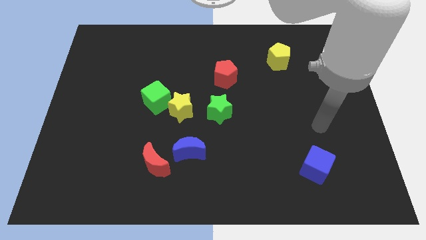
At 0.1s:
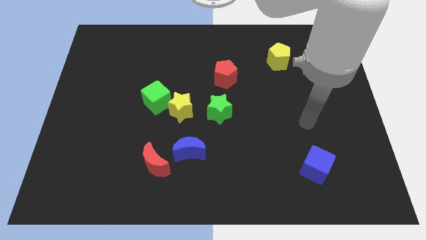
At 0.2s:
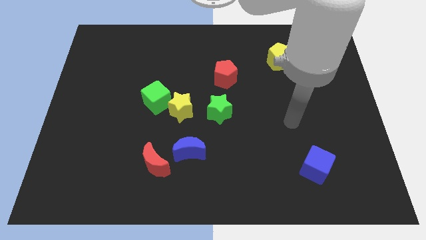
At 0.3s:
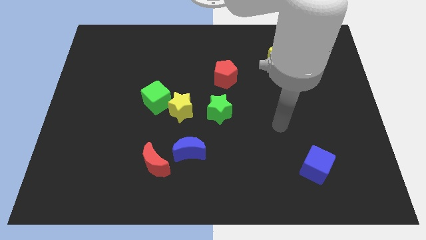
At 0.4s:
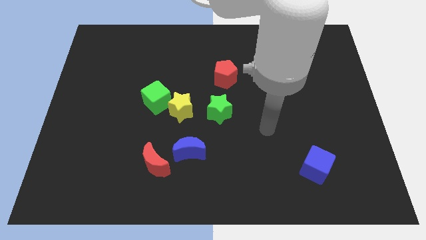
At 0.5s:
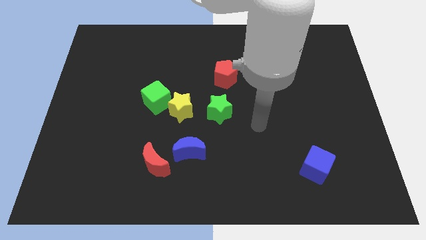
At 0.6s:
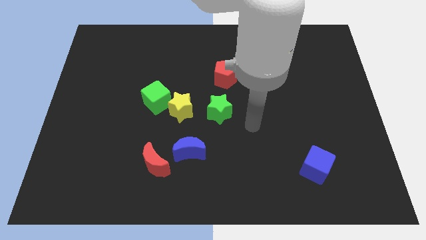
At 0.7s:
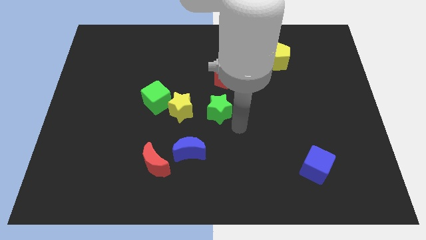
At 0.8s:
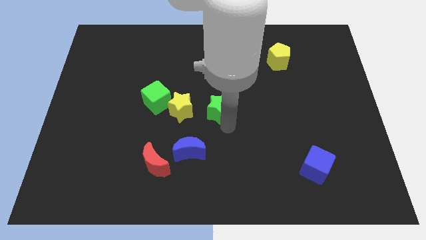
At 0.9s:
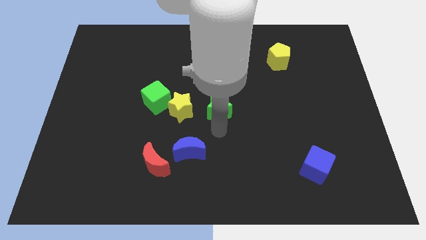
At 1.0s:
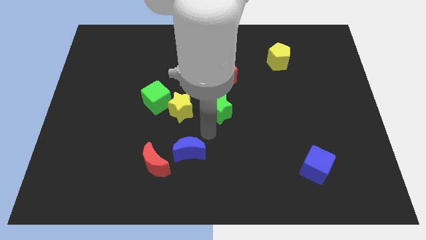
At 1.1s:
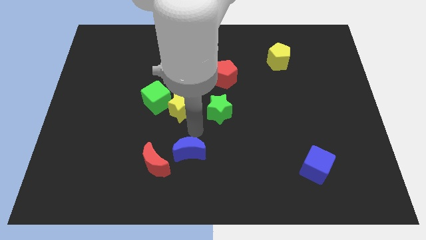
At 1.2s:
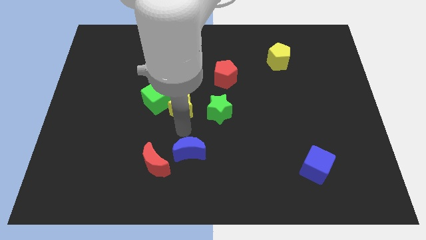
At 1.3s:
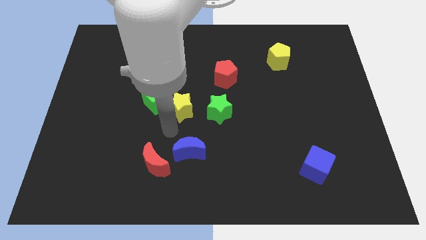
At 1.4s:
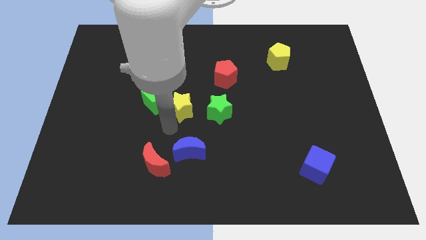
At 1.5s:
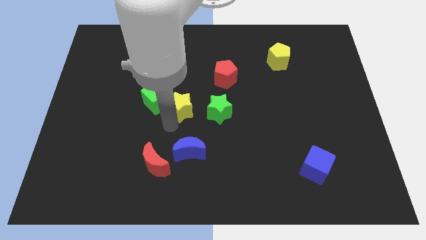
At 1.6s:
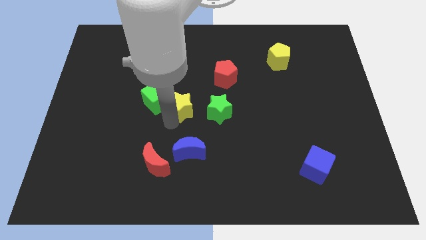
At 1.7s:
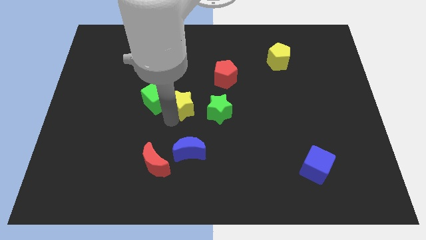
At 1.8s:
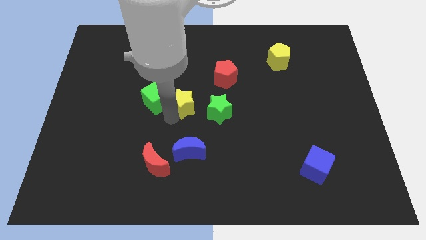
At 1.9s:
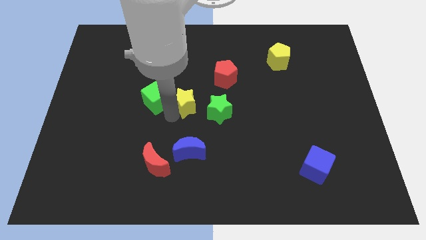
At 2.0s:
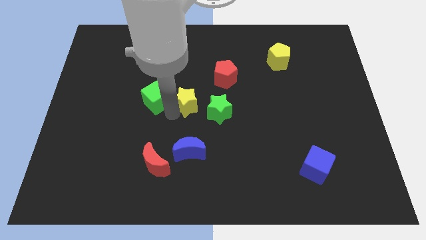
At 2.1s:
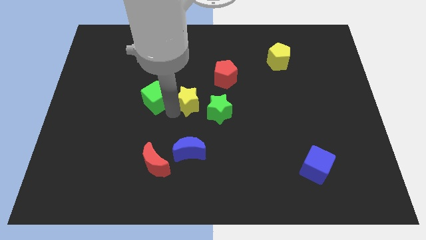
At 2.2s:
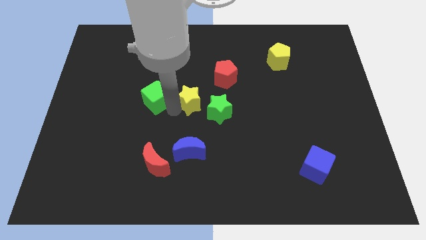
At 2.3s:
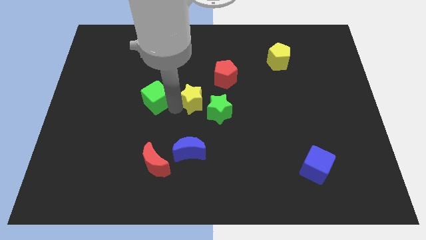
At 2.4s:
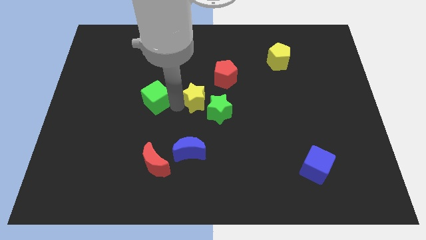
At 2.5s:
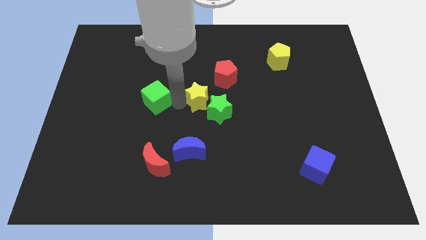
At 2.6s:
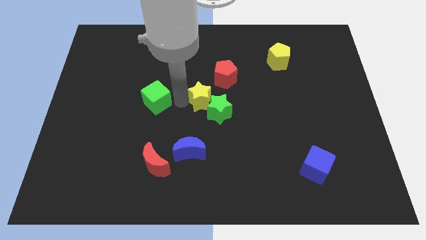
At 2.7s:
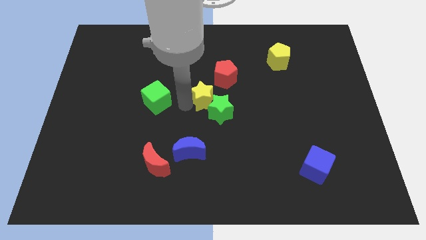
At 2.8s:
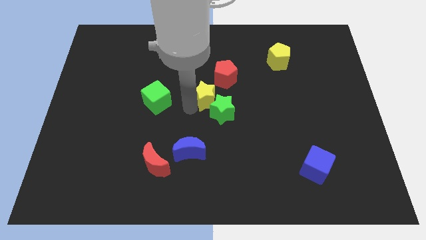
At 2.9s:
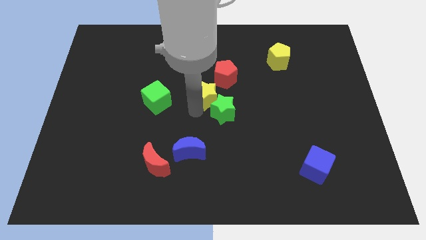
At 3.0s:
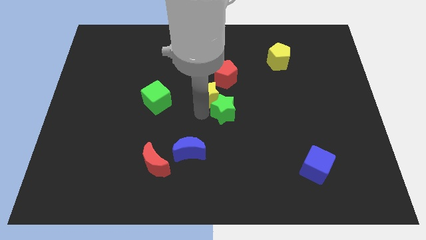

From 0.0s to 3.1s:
slightly move the yellow star upwards and right

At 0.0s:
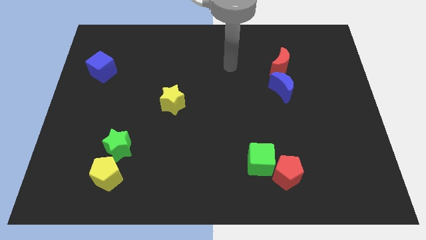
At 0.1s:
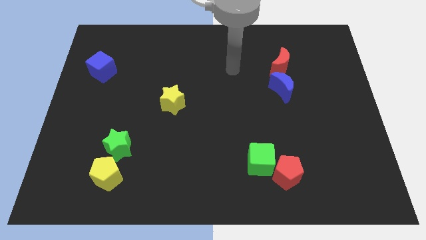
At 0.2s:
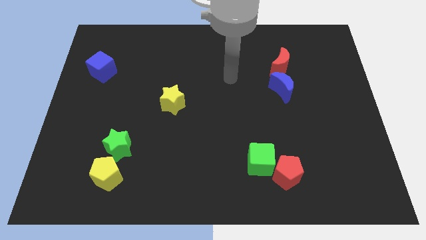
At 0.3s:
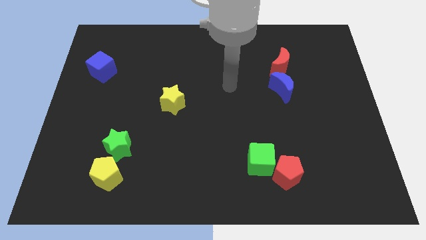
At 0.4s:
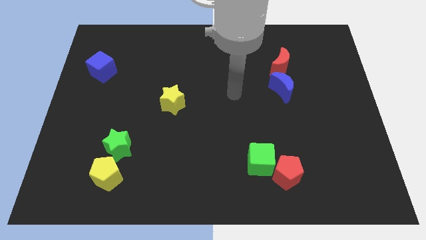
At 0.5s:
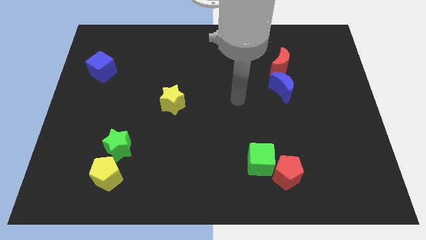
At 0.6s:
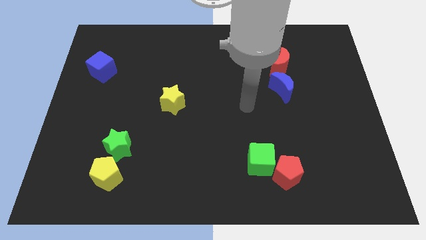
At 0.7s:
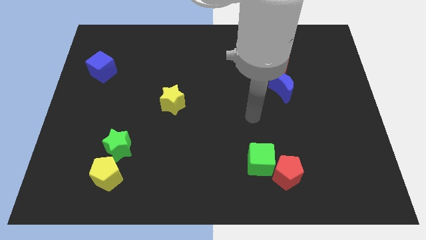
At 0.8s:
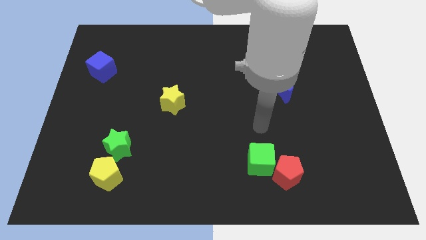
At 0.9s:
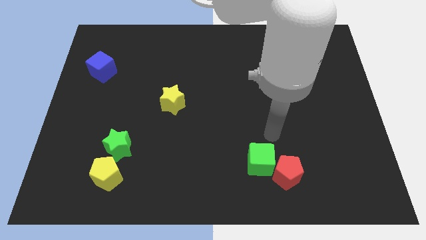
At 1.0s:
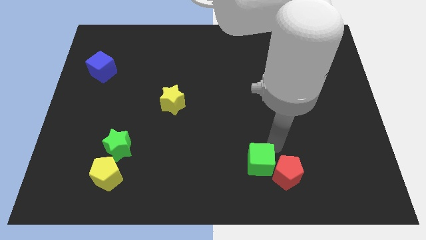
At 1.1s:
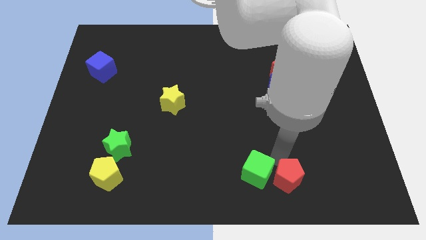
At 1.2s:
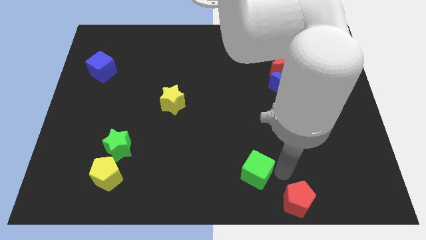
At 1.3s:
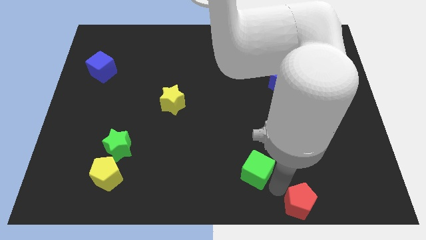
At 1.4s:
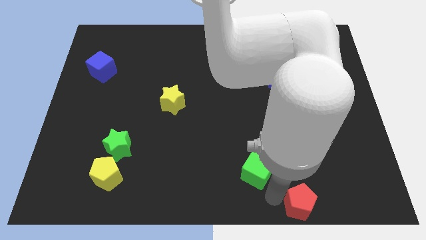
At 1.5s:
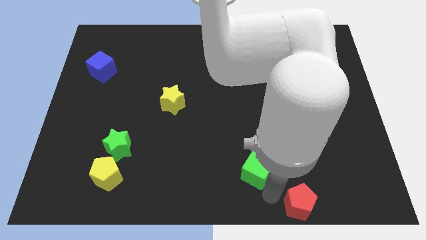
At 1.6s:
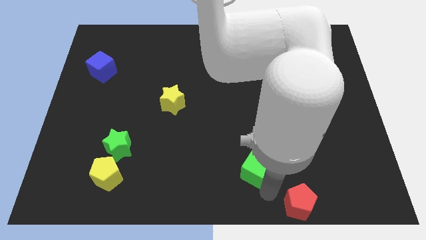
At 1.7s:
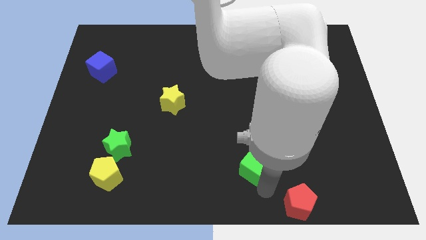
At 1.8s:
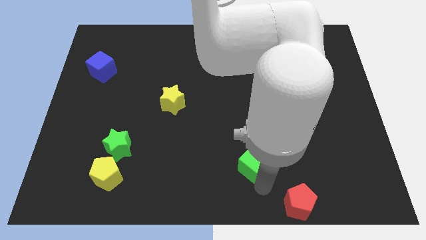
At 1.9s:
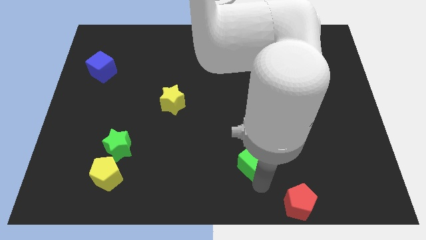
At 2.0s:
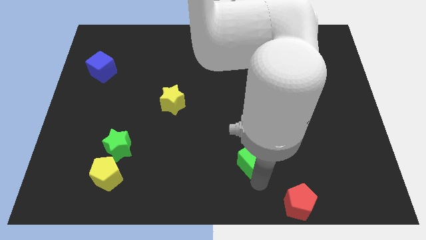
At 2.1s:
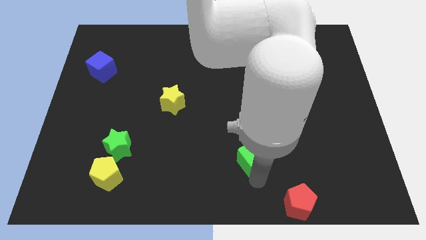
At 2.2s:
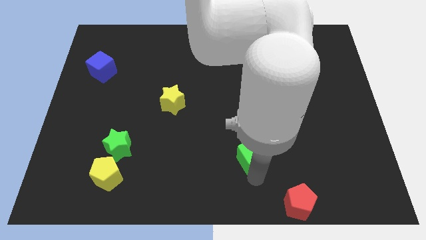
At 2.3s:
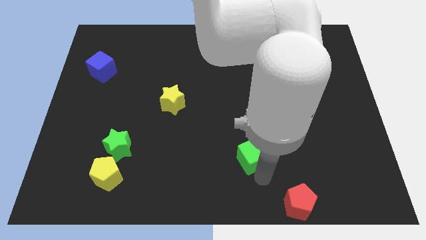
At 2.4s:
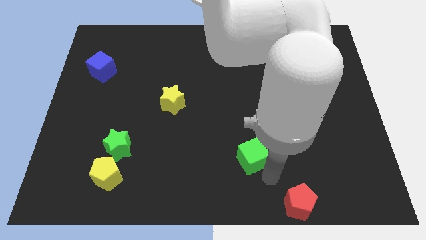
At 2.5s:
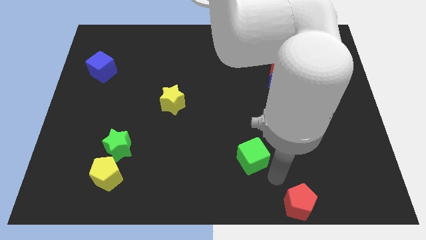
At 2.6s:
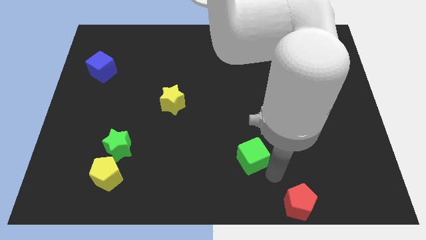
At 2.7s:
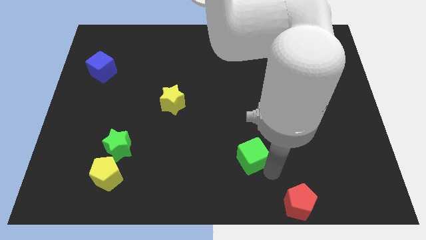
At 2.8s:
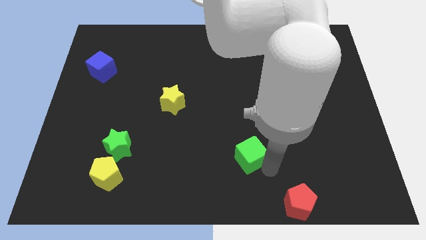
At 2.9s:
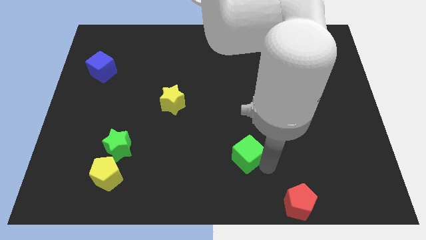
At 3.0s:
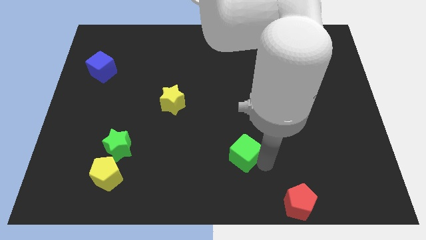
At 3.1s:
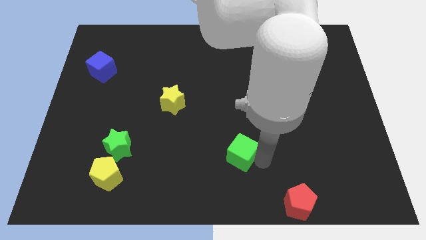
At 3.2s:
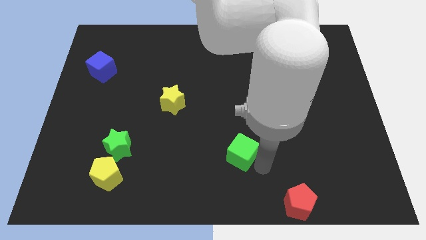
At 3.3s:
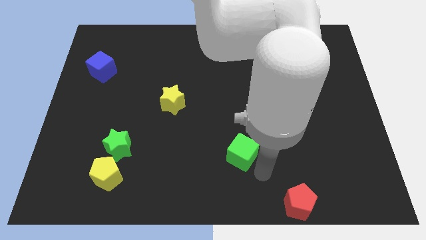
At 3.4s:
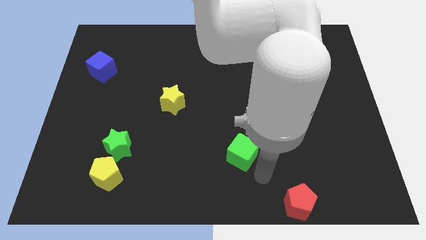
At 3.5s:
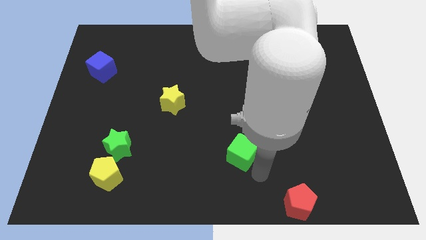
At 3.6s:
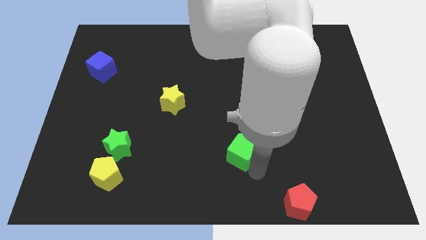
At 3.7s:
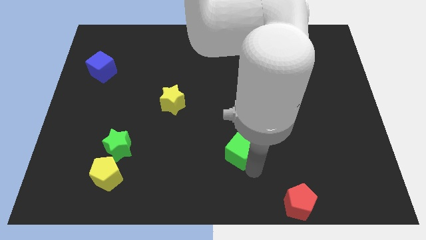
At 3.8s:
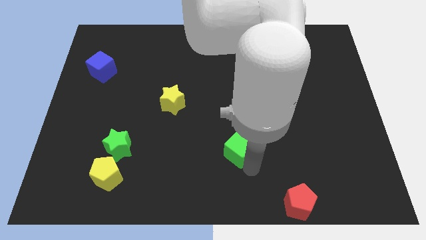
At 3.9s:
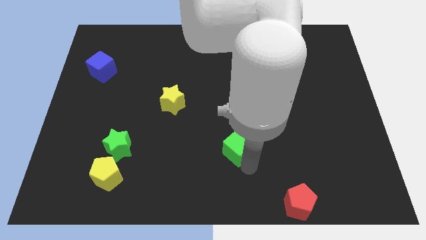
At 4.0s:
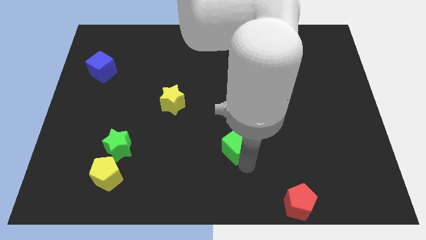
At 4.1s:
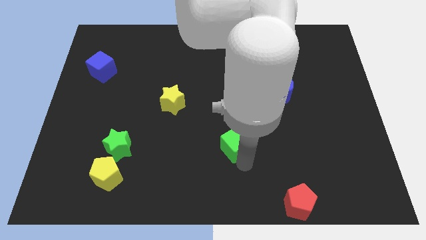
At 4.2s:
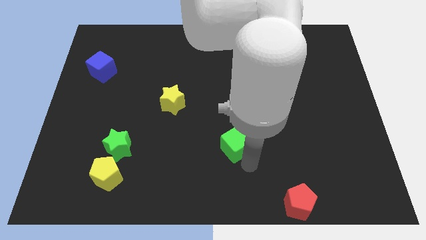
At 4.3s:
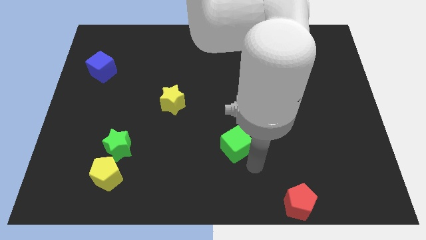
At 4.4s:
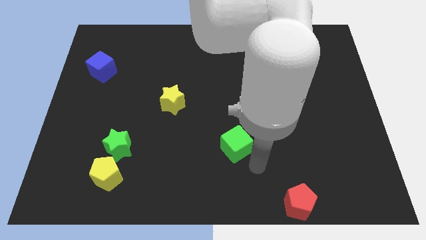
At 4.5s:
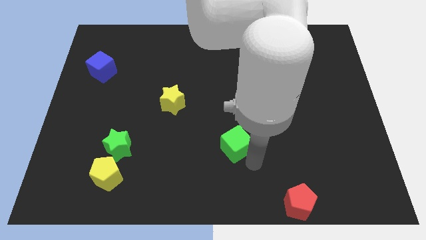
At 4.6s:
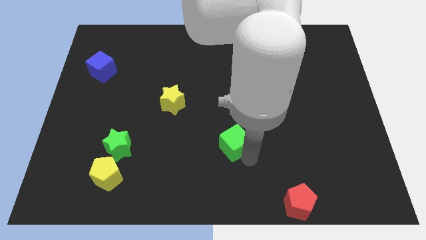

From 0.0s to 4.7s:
move the green cube somewhat upwards and to the left

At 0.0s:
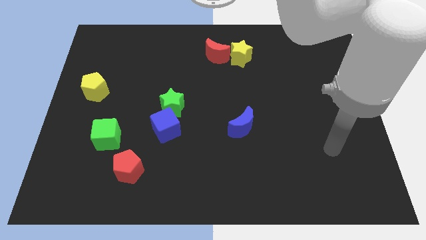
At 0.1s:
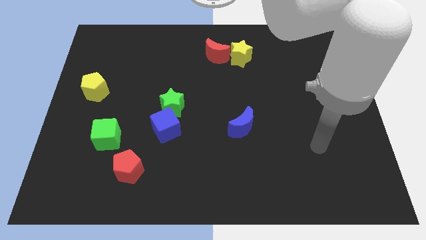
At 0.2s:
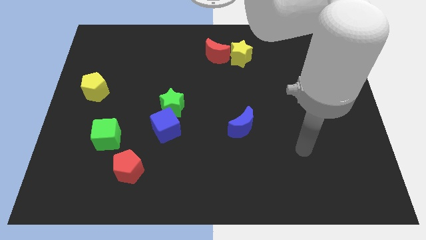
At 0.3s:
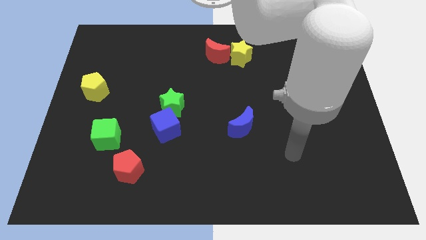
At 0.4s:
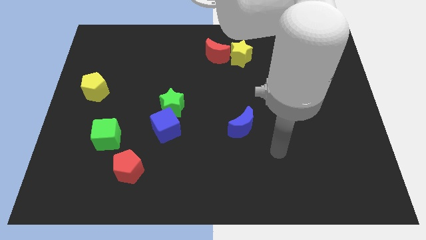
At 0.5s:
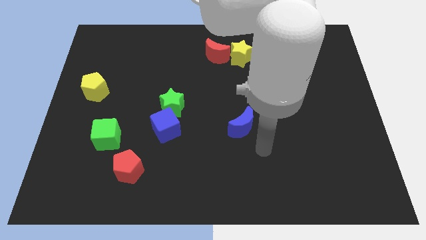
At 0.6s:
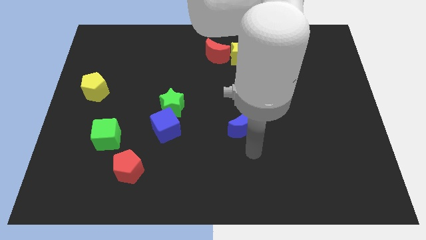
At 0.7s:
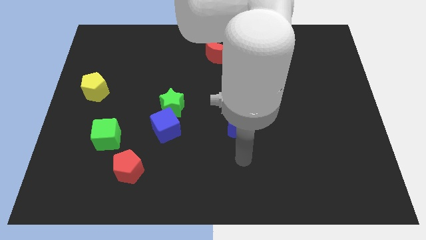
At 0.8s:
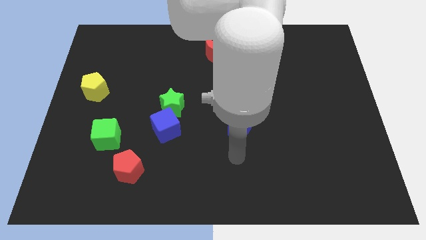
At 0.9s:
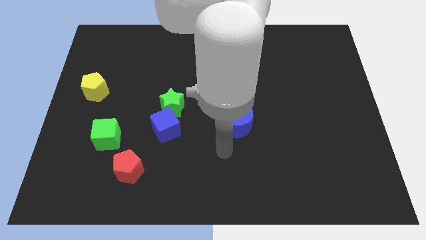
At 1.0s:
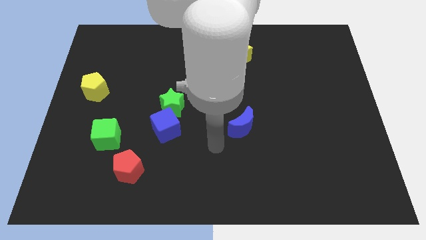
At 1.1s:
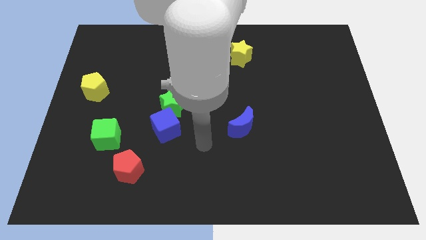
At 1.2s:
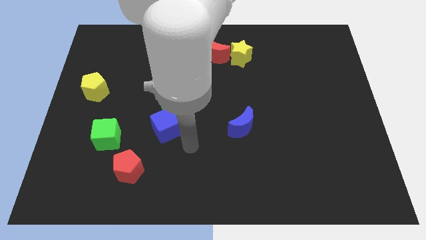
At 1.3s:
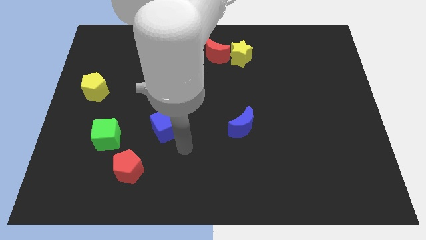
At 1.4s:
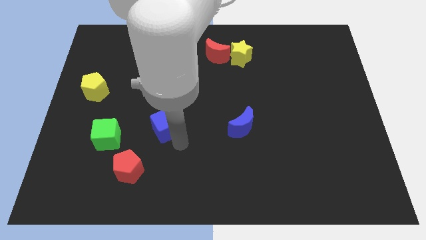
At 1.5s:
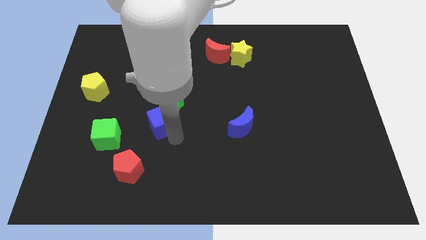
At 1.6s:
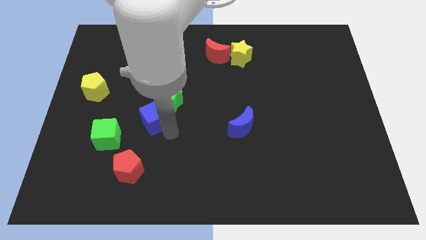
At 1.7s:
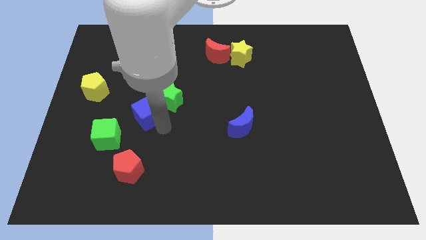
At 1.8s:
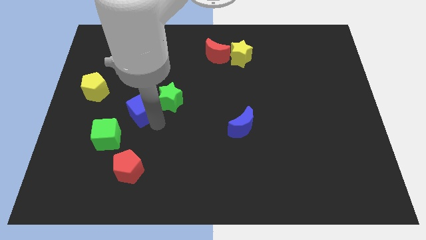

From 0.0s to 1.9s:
push the blue cube a bit upwards and to the left
